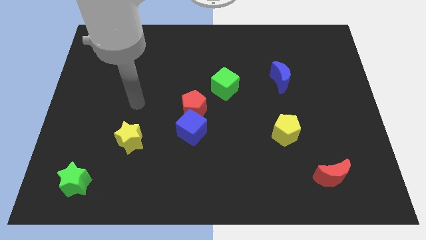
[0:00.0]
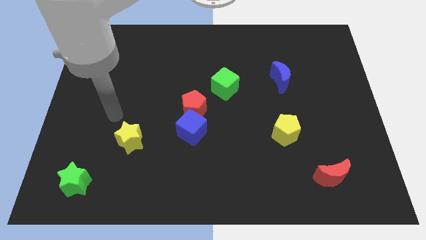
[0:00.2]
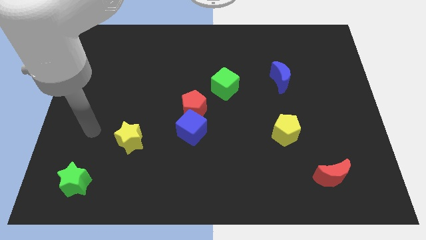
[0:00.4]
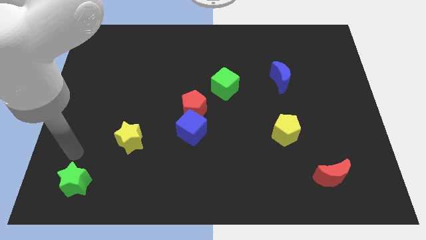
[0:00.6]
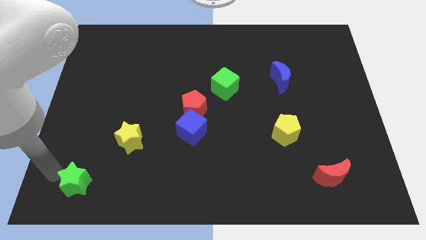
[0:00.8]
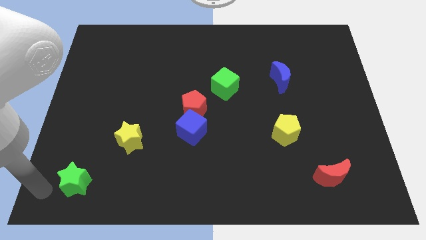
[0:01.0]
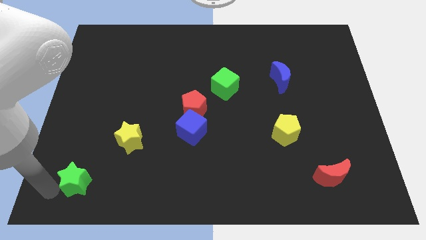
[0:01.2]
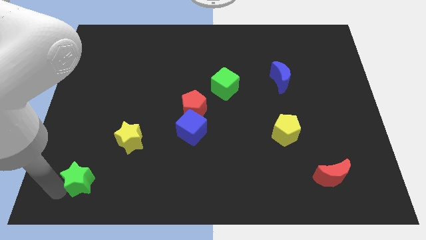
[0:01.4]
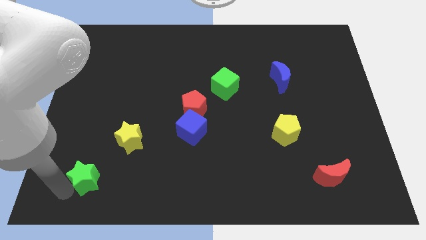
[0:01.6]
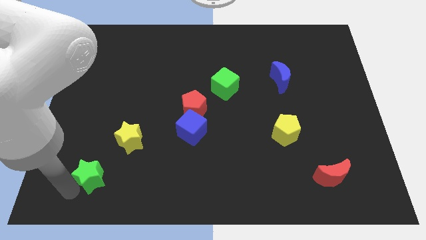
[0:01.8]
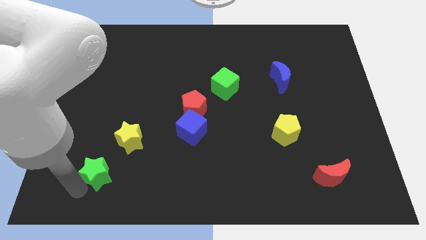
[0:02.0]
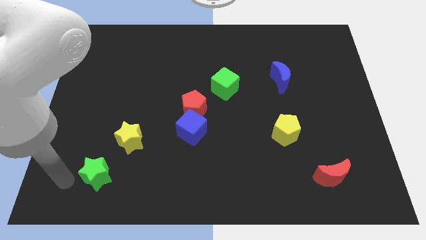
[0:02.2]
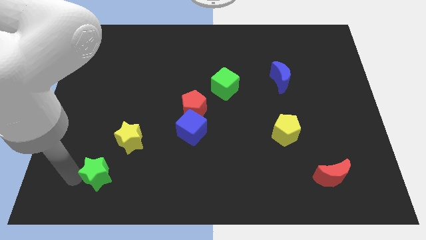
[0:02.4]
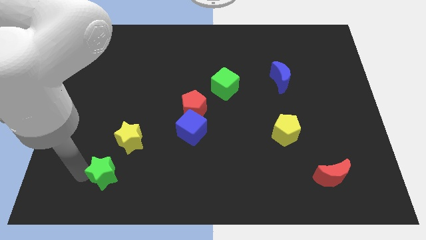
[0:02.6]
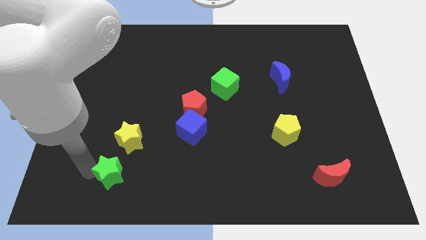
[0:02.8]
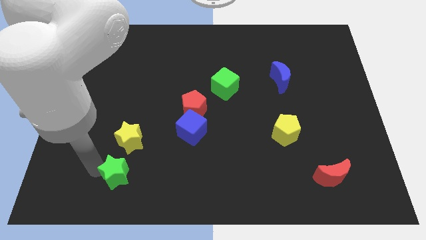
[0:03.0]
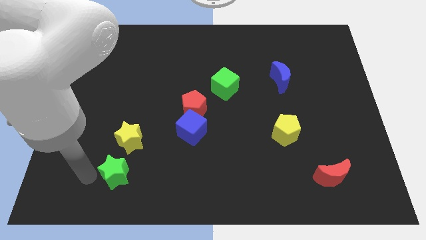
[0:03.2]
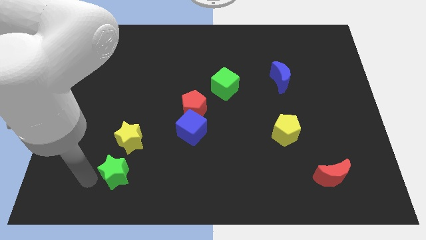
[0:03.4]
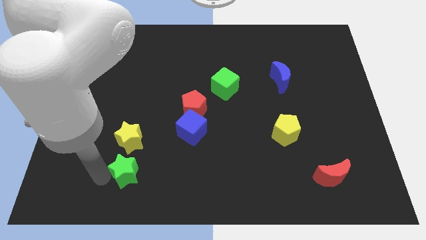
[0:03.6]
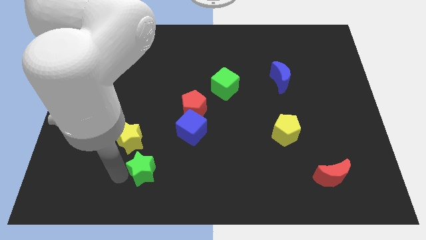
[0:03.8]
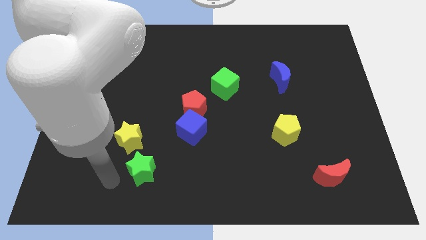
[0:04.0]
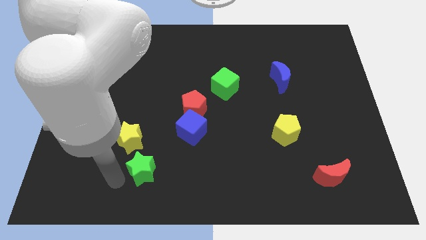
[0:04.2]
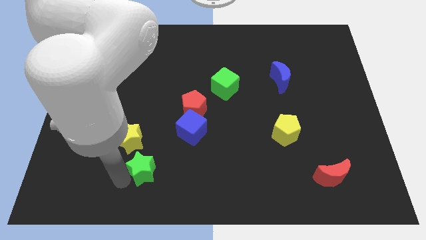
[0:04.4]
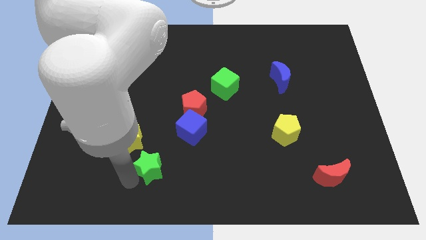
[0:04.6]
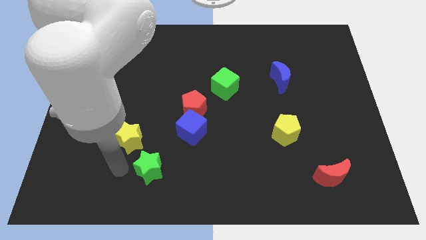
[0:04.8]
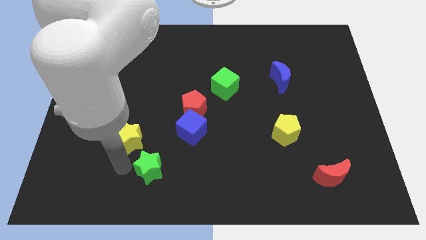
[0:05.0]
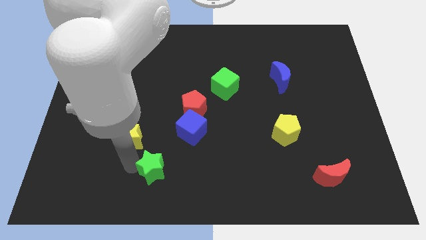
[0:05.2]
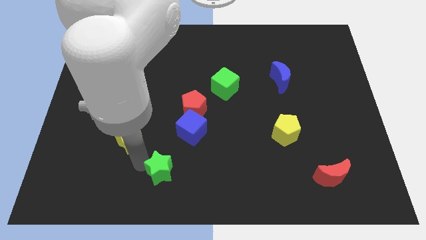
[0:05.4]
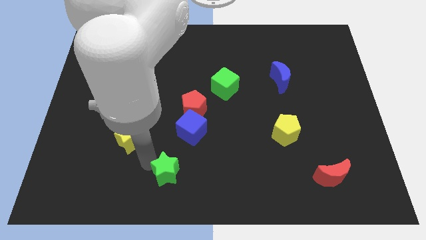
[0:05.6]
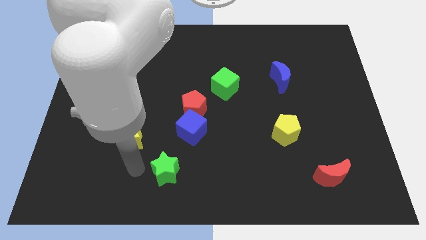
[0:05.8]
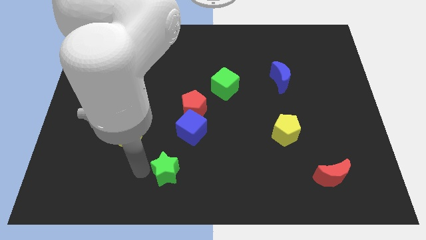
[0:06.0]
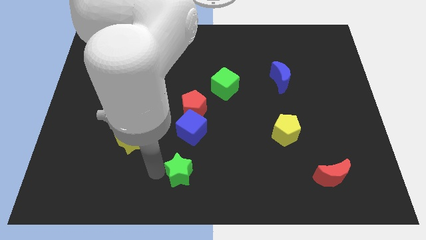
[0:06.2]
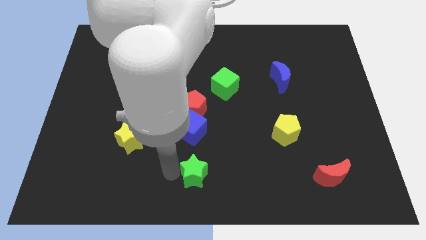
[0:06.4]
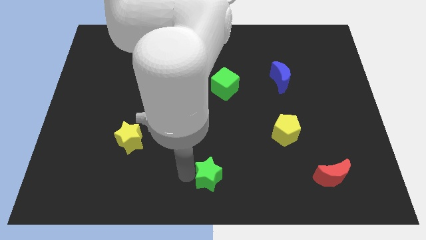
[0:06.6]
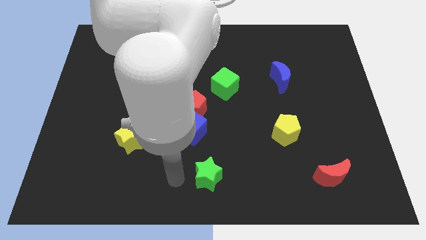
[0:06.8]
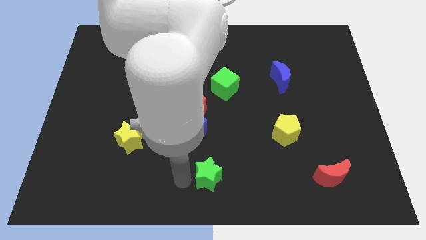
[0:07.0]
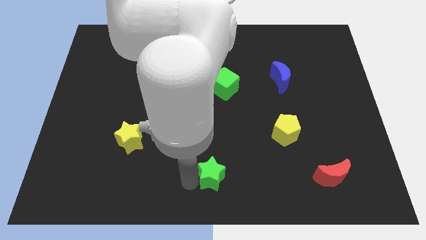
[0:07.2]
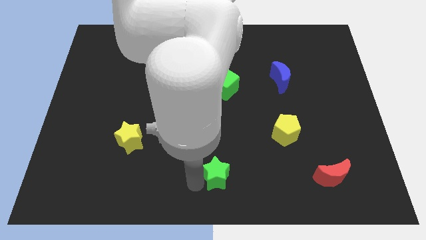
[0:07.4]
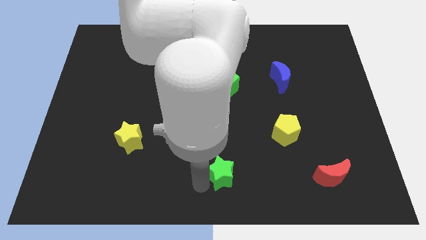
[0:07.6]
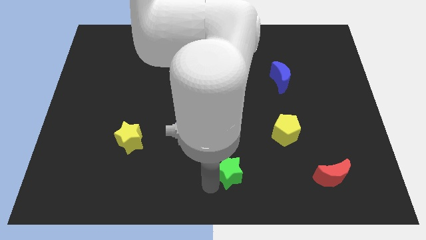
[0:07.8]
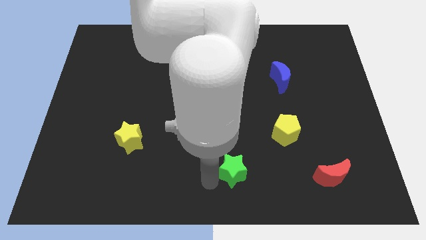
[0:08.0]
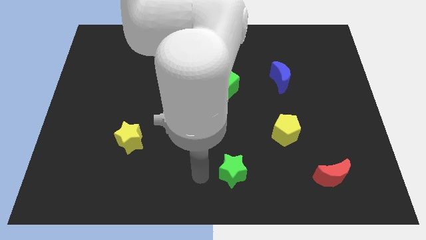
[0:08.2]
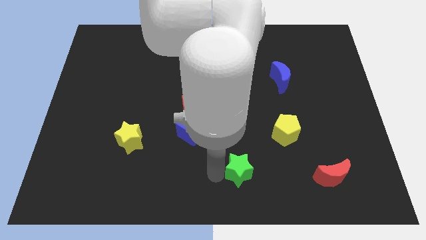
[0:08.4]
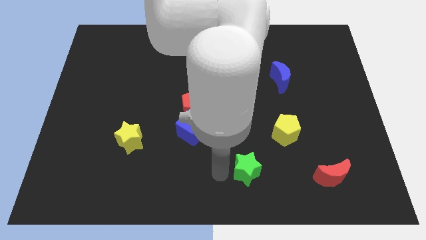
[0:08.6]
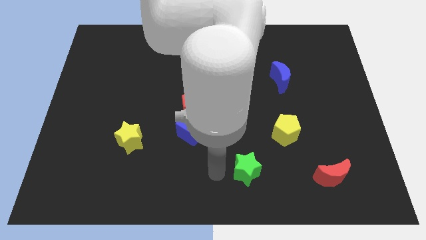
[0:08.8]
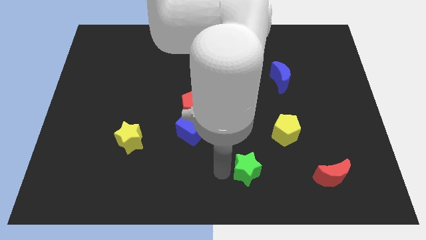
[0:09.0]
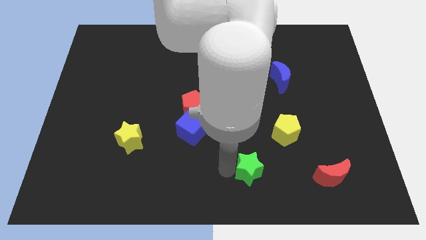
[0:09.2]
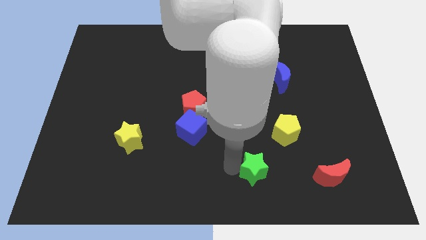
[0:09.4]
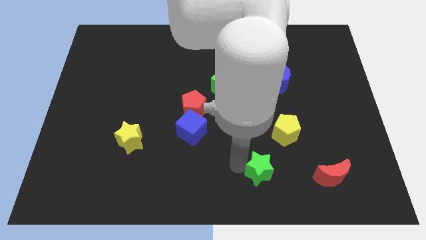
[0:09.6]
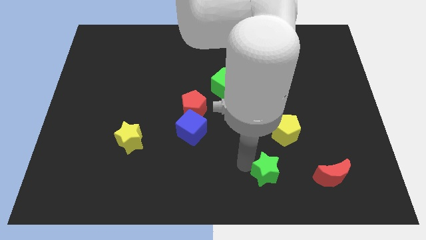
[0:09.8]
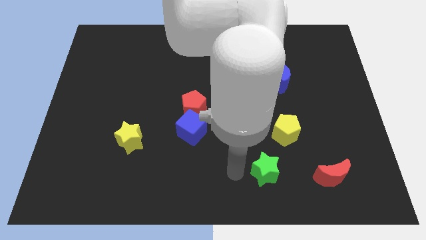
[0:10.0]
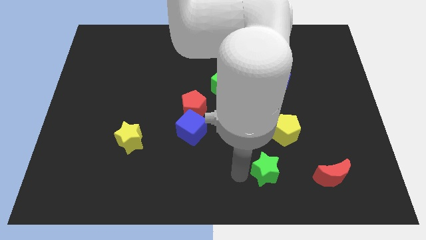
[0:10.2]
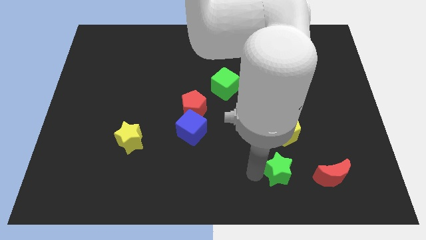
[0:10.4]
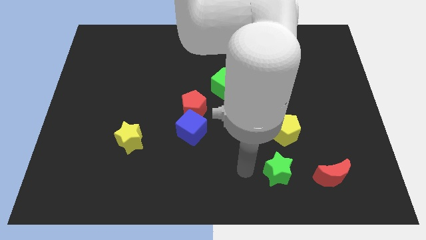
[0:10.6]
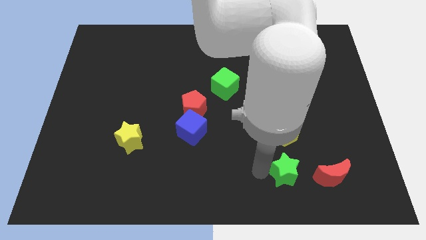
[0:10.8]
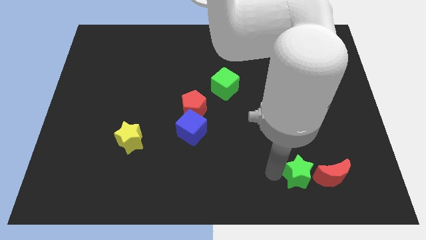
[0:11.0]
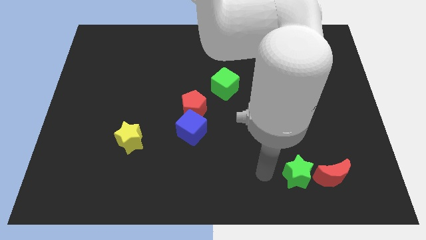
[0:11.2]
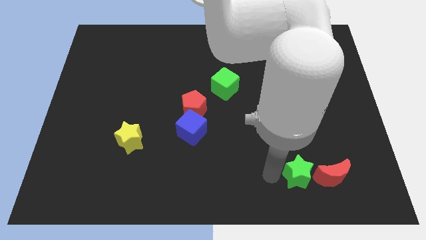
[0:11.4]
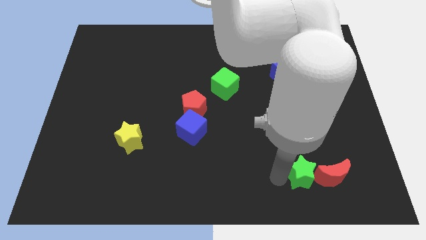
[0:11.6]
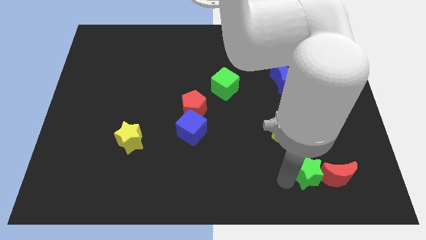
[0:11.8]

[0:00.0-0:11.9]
push the green star towards the red moon

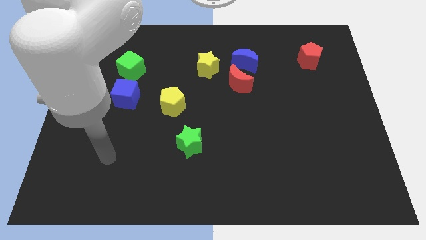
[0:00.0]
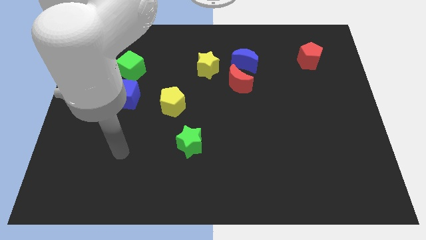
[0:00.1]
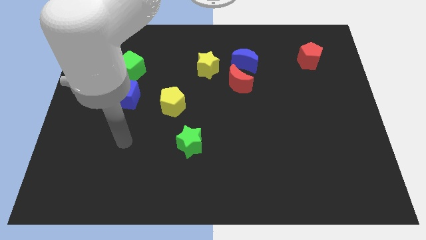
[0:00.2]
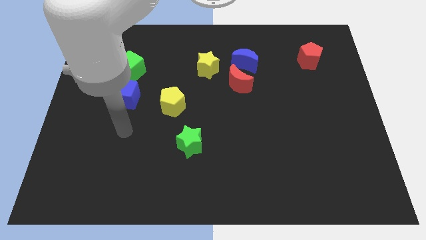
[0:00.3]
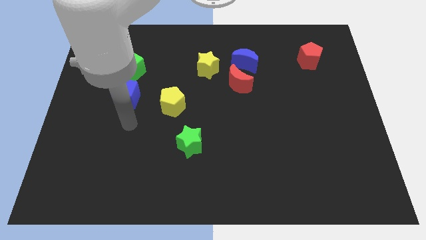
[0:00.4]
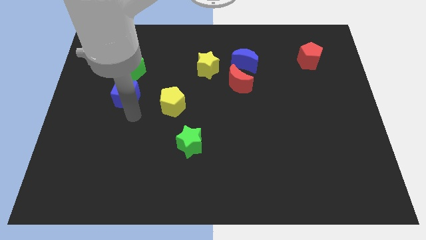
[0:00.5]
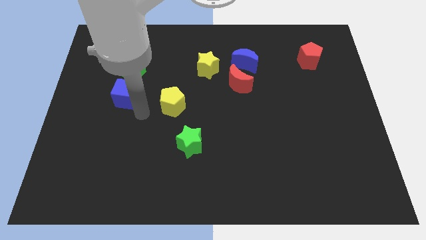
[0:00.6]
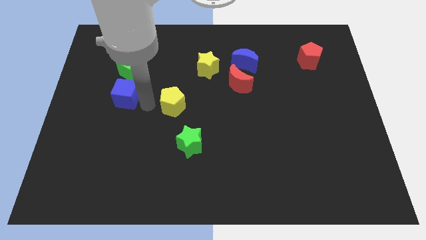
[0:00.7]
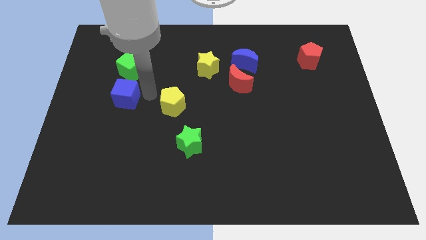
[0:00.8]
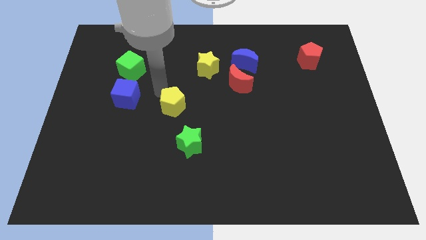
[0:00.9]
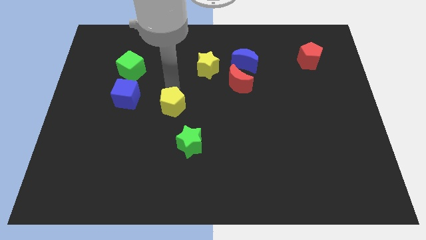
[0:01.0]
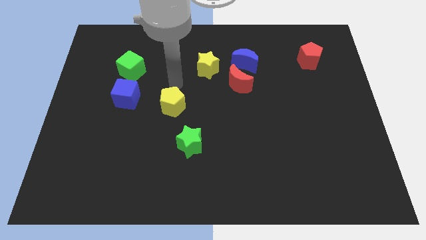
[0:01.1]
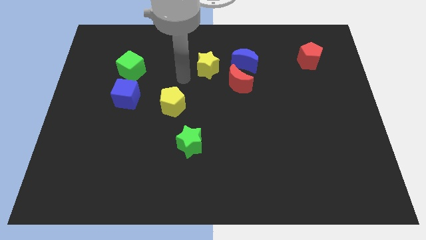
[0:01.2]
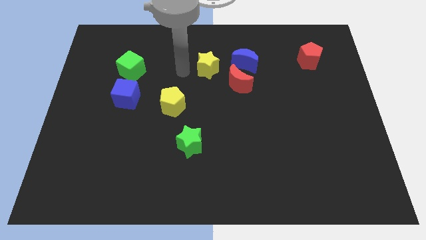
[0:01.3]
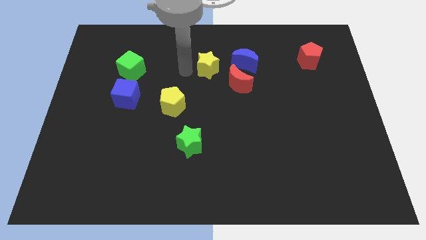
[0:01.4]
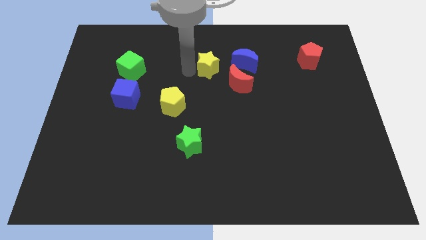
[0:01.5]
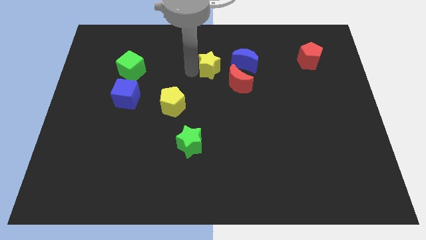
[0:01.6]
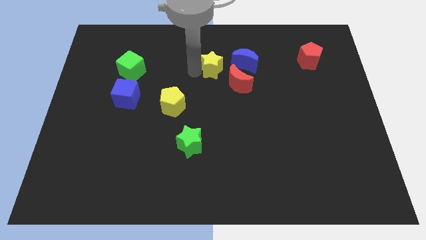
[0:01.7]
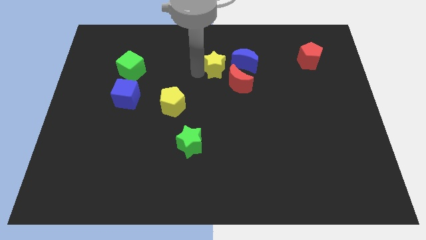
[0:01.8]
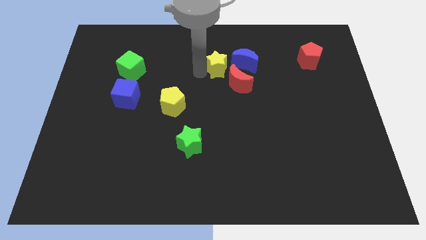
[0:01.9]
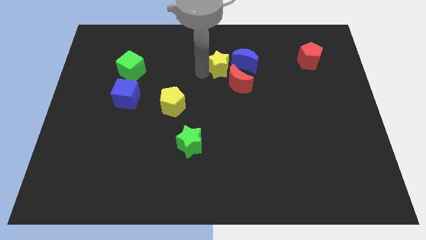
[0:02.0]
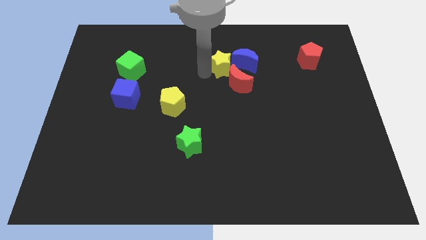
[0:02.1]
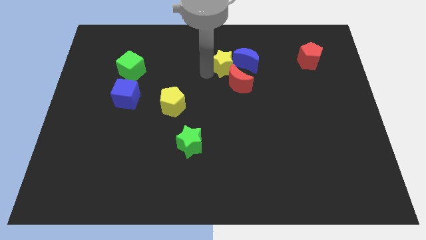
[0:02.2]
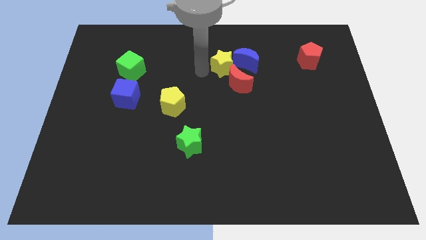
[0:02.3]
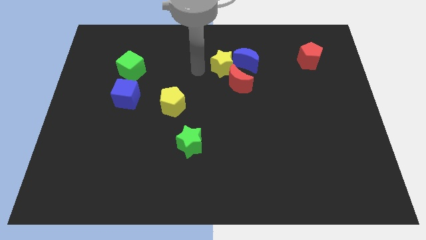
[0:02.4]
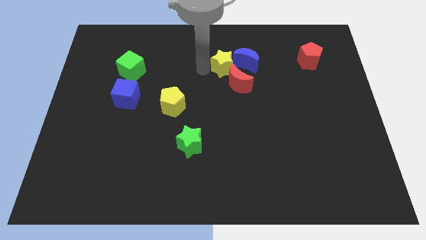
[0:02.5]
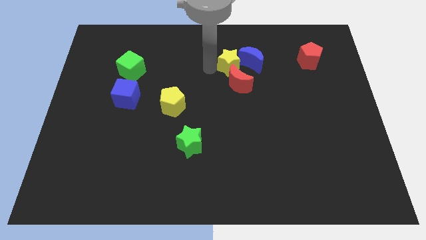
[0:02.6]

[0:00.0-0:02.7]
slide the yellow star close to the blue moon
